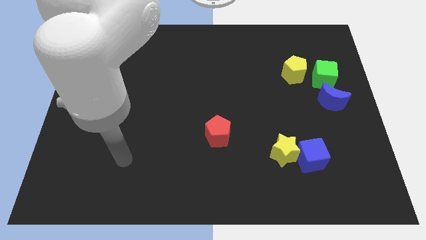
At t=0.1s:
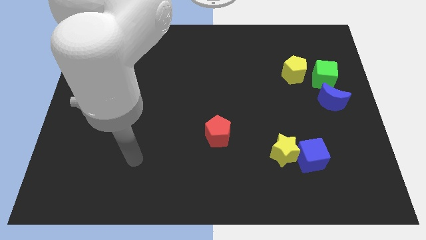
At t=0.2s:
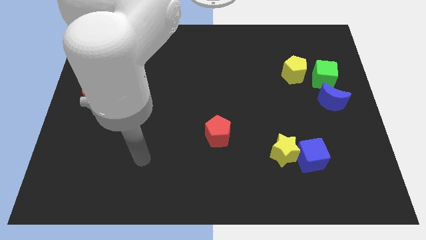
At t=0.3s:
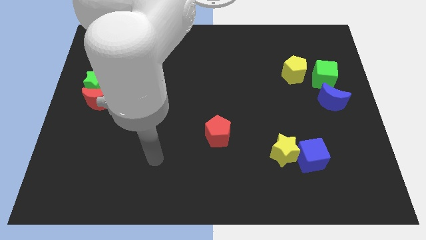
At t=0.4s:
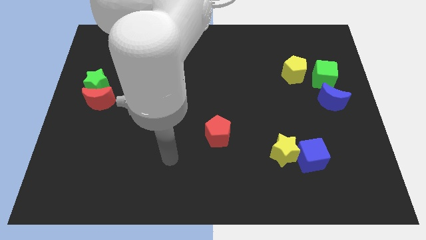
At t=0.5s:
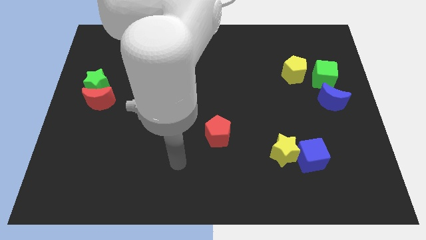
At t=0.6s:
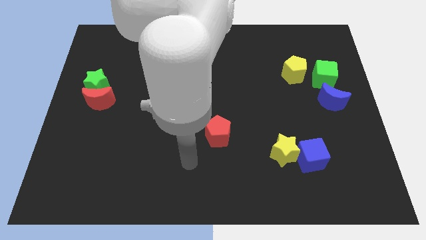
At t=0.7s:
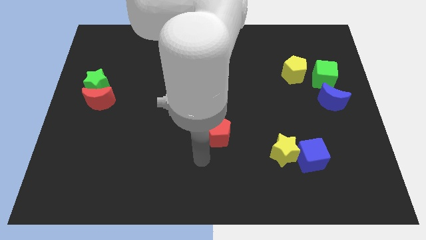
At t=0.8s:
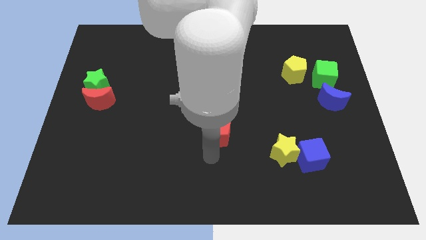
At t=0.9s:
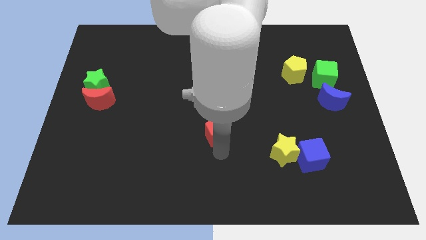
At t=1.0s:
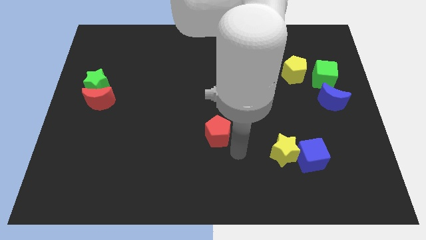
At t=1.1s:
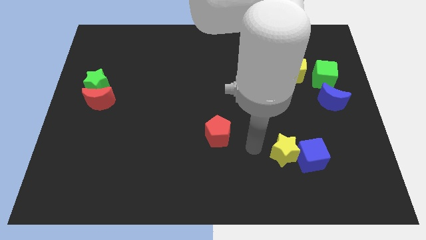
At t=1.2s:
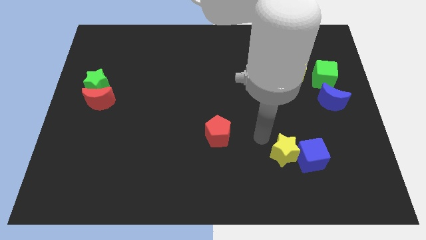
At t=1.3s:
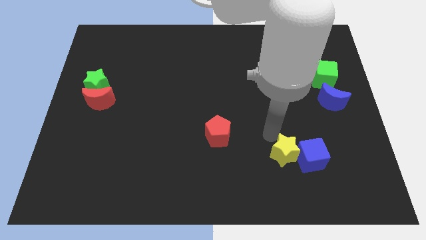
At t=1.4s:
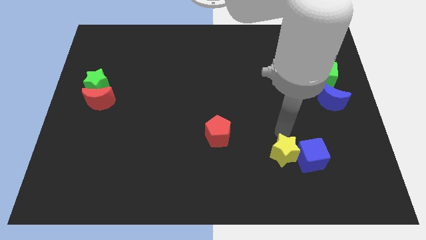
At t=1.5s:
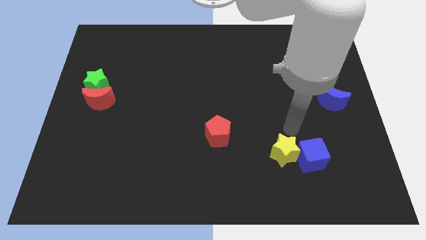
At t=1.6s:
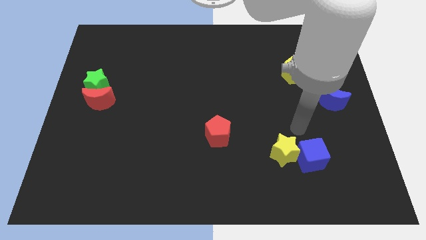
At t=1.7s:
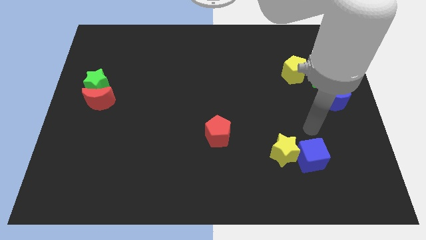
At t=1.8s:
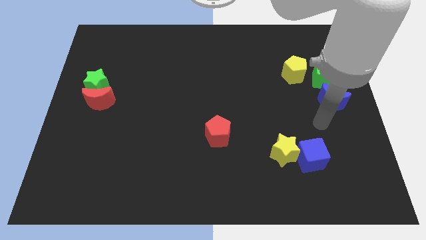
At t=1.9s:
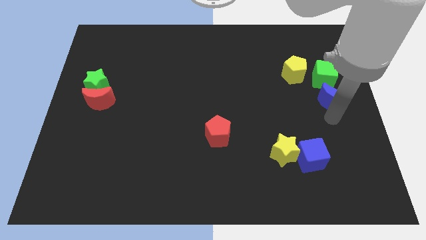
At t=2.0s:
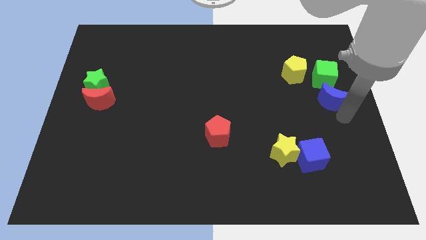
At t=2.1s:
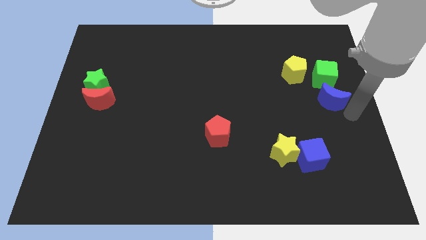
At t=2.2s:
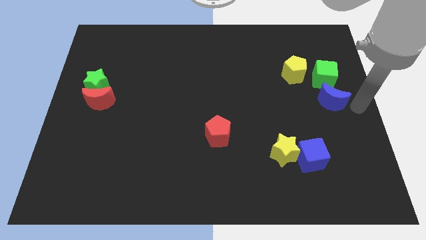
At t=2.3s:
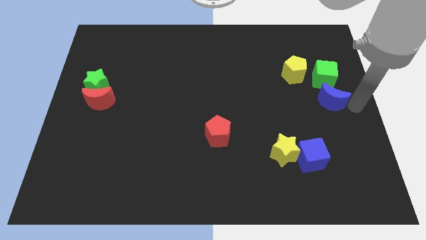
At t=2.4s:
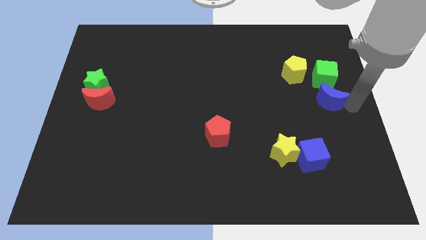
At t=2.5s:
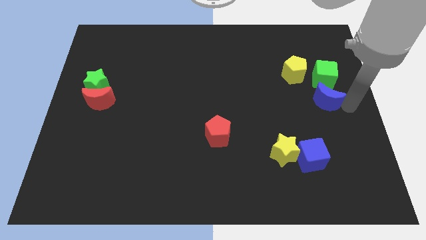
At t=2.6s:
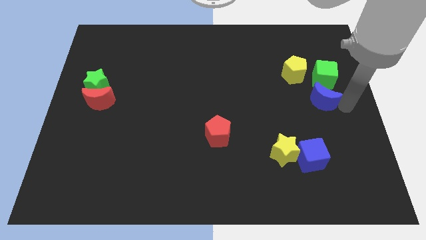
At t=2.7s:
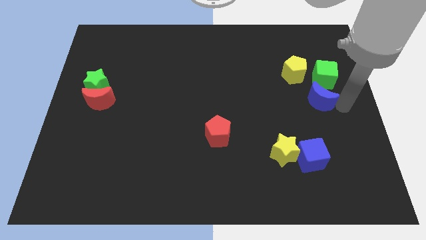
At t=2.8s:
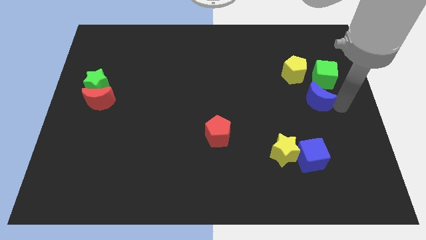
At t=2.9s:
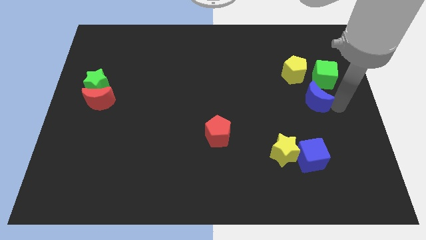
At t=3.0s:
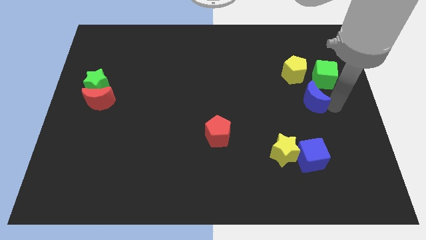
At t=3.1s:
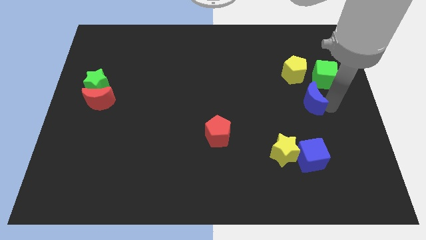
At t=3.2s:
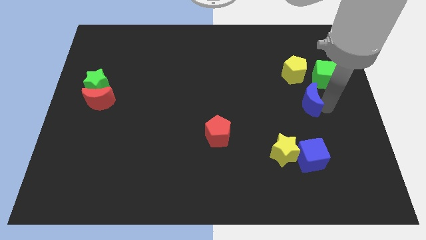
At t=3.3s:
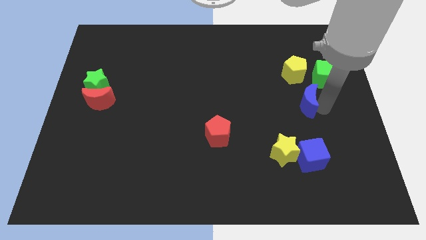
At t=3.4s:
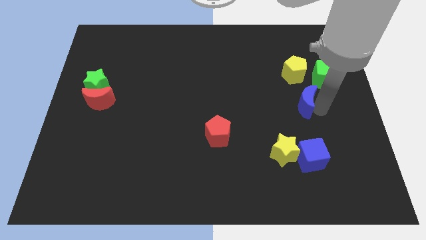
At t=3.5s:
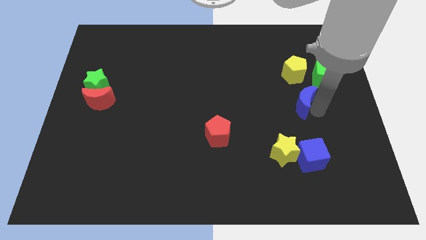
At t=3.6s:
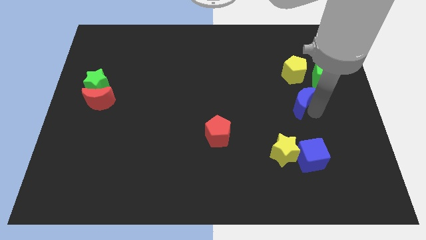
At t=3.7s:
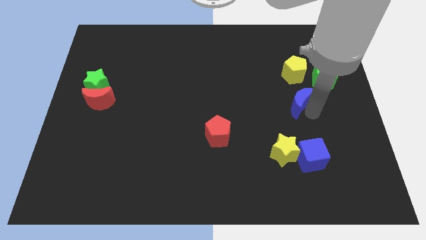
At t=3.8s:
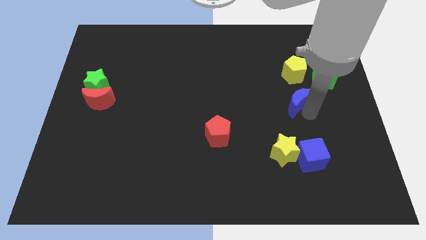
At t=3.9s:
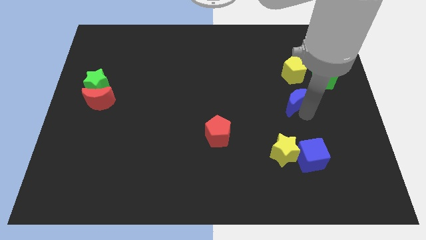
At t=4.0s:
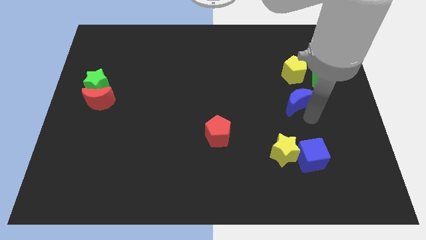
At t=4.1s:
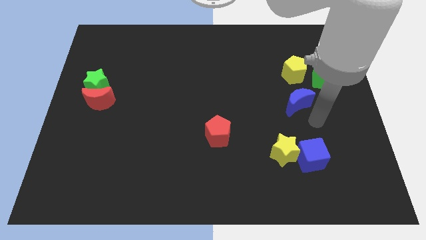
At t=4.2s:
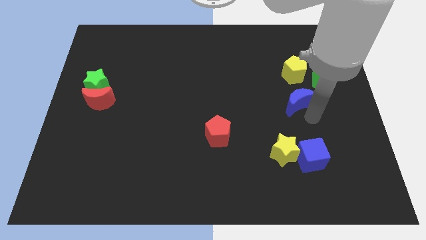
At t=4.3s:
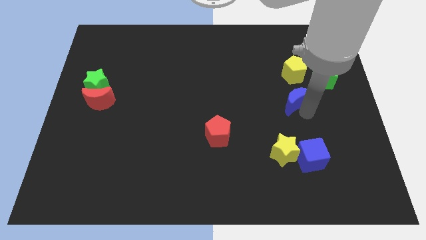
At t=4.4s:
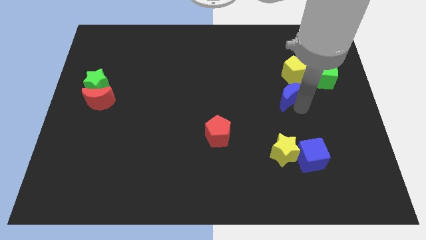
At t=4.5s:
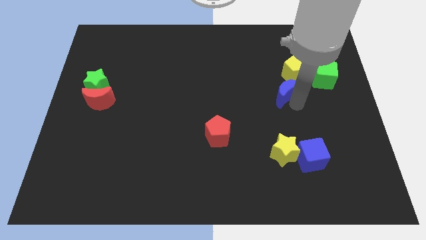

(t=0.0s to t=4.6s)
slide the blue moon a bit up and left diagonally

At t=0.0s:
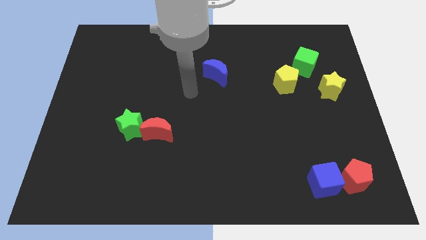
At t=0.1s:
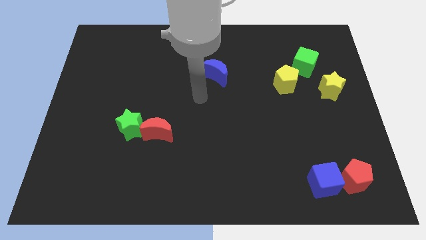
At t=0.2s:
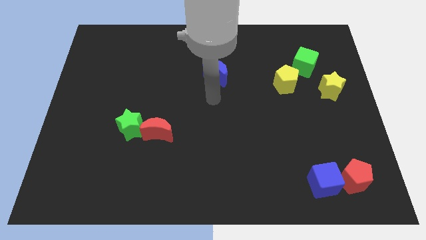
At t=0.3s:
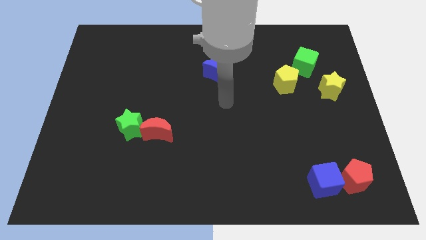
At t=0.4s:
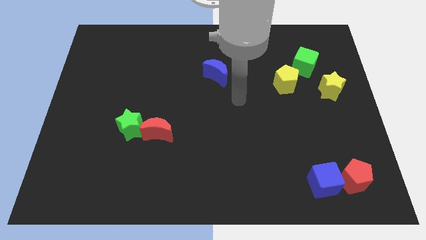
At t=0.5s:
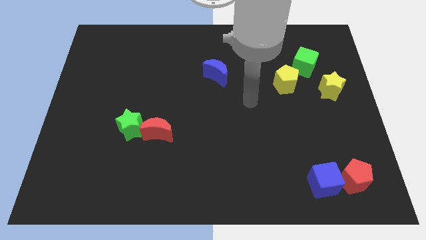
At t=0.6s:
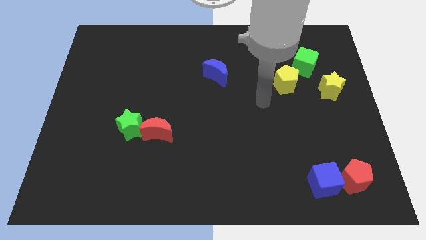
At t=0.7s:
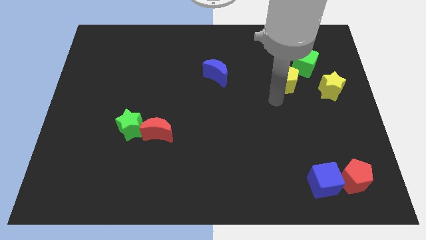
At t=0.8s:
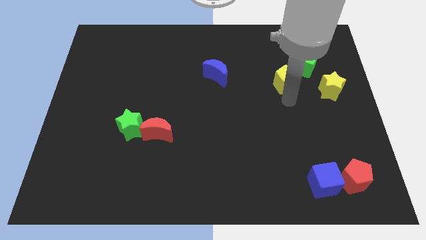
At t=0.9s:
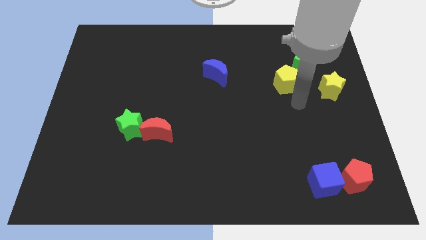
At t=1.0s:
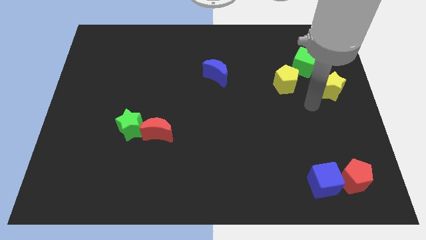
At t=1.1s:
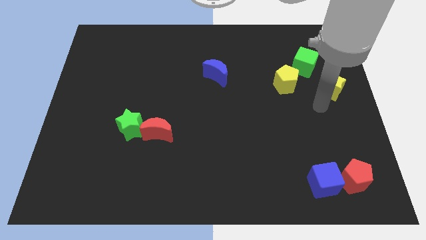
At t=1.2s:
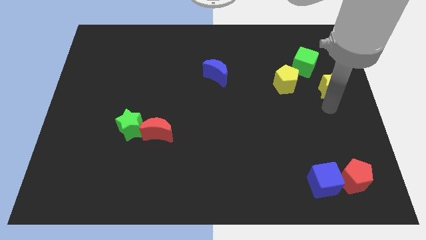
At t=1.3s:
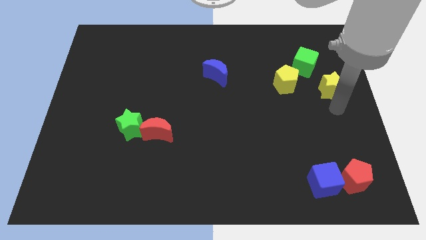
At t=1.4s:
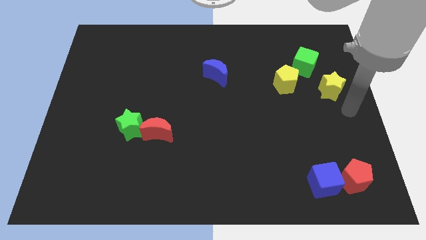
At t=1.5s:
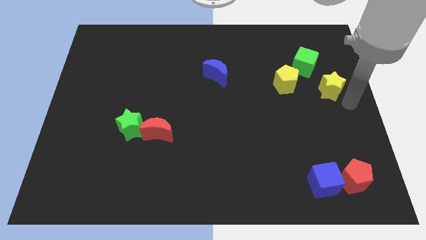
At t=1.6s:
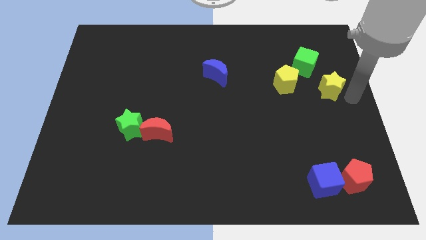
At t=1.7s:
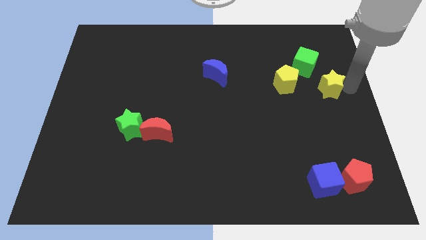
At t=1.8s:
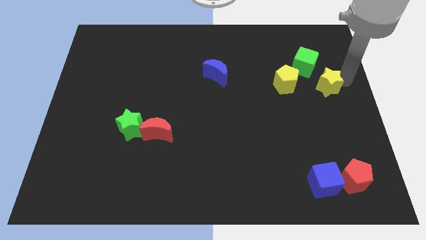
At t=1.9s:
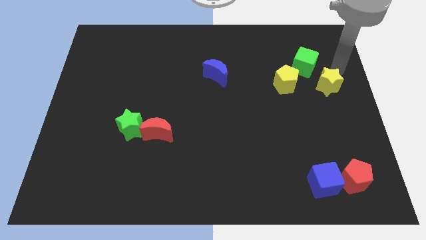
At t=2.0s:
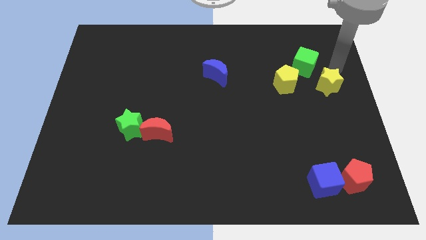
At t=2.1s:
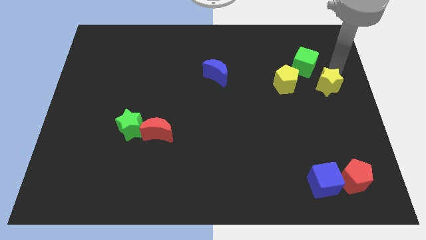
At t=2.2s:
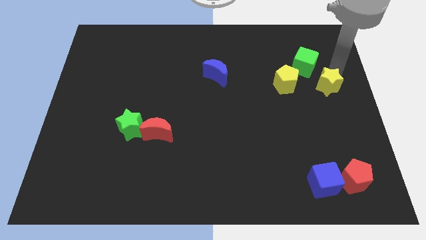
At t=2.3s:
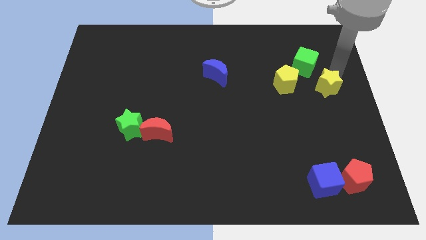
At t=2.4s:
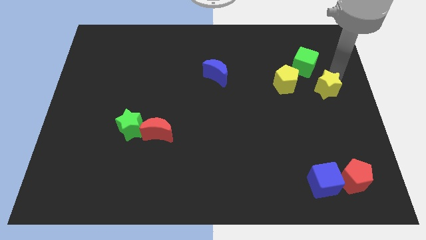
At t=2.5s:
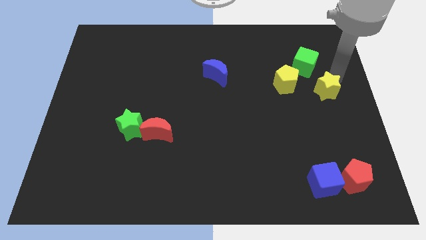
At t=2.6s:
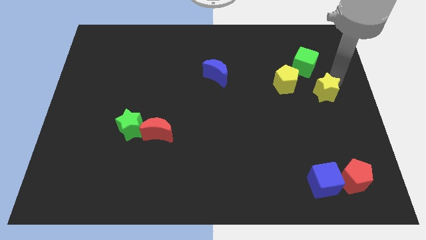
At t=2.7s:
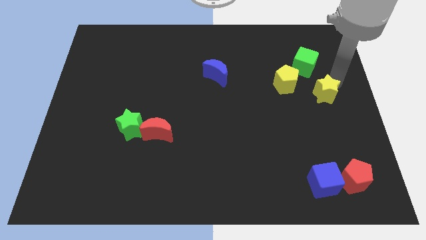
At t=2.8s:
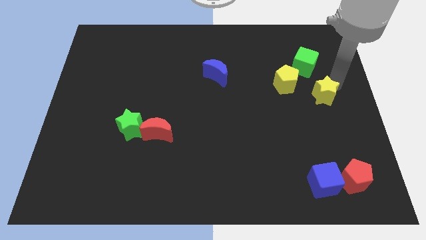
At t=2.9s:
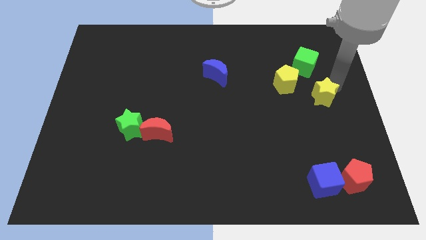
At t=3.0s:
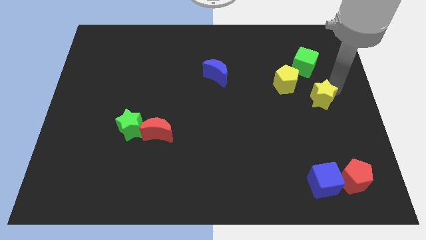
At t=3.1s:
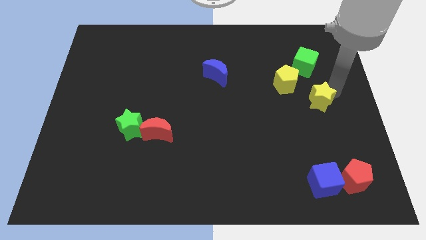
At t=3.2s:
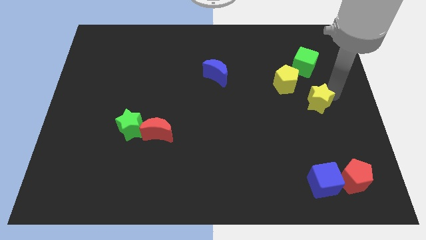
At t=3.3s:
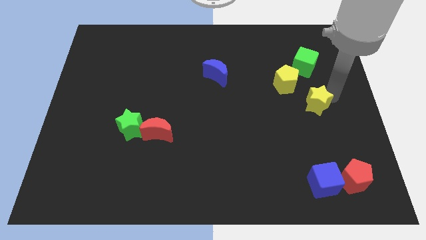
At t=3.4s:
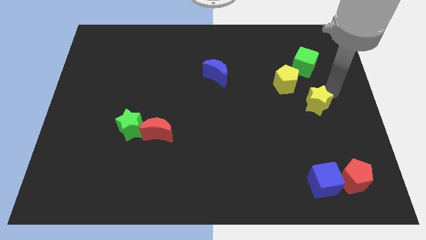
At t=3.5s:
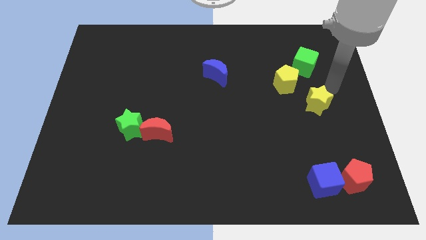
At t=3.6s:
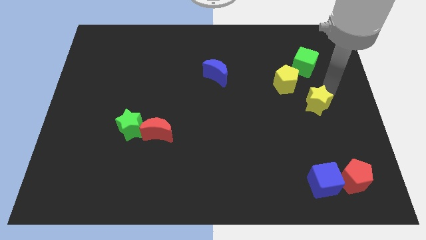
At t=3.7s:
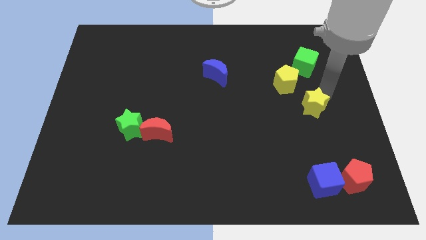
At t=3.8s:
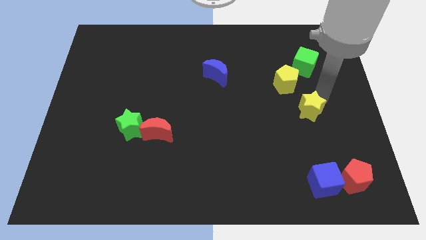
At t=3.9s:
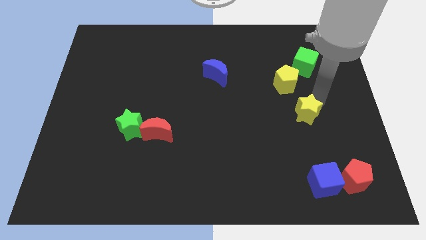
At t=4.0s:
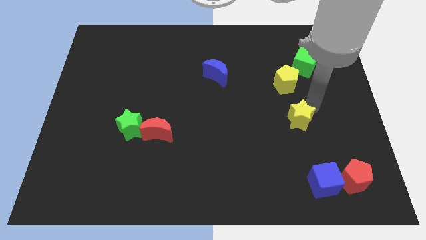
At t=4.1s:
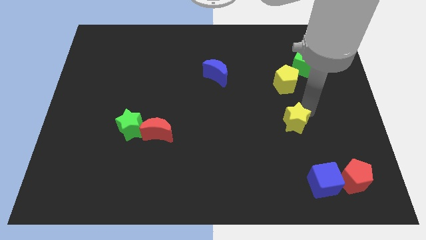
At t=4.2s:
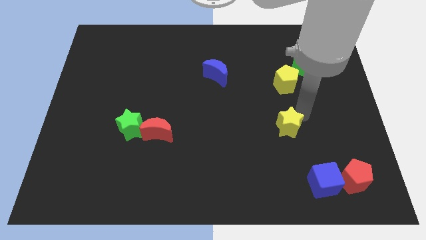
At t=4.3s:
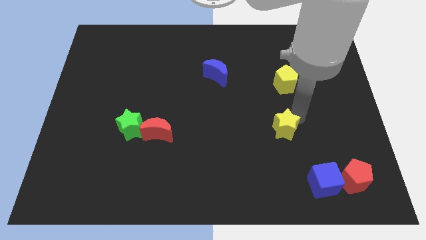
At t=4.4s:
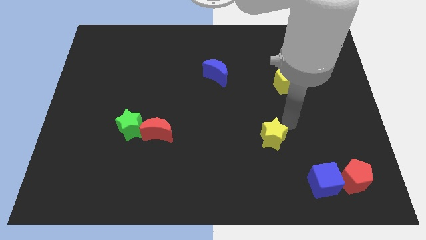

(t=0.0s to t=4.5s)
move the yellow star down and then left
